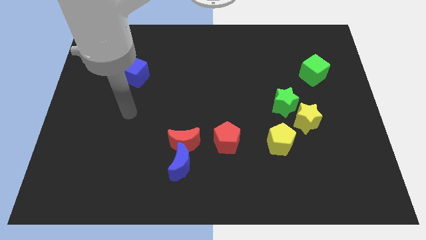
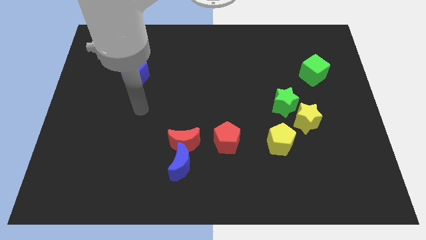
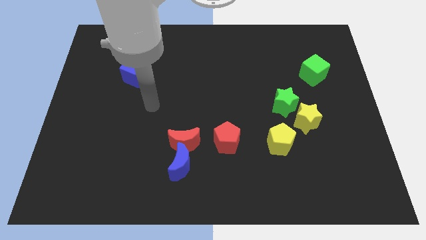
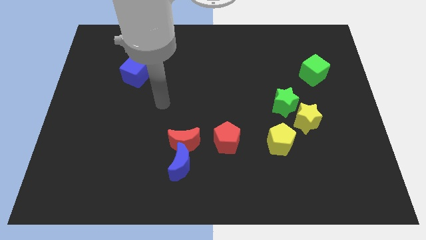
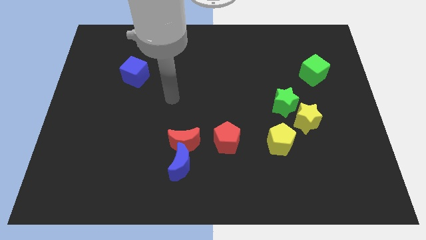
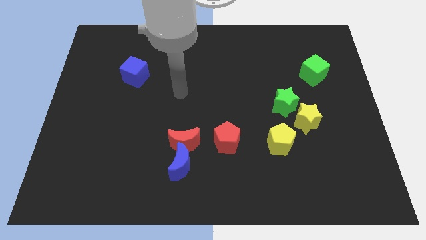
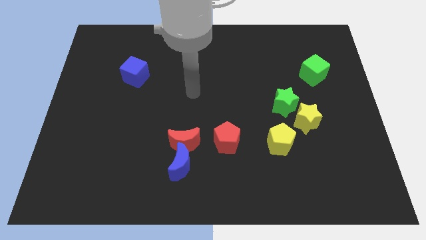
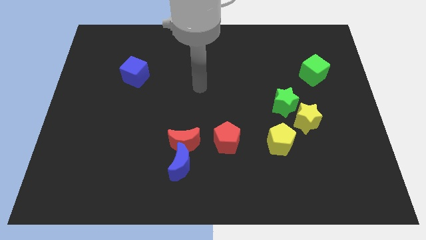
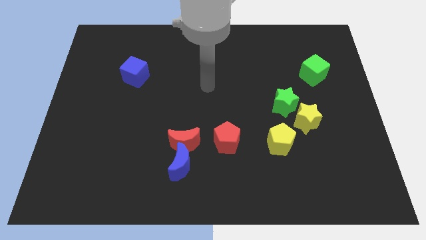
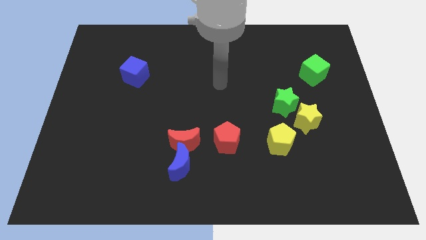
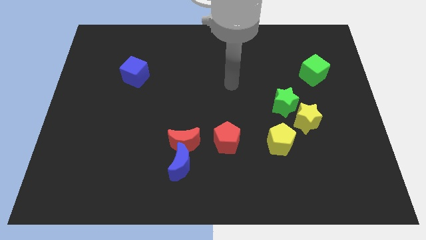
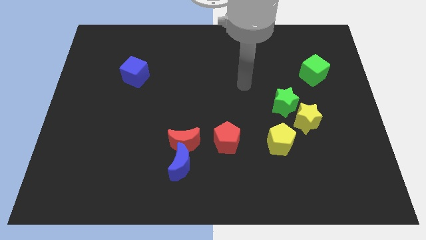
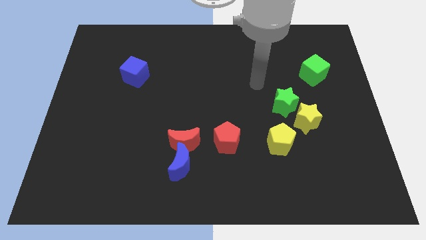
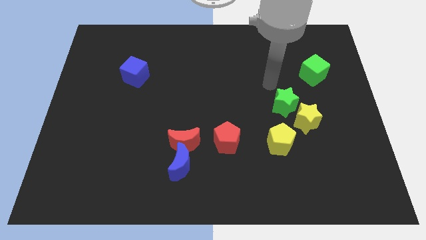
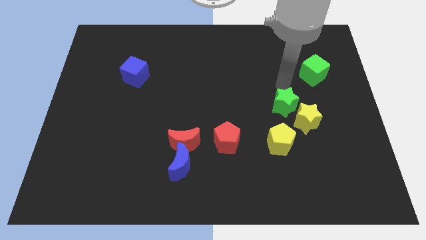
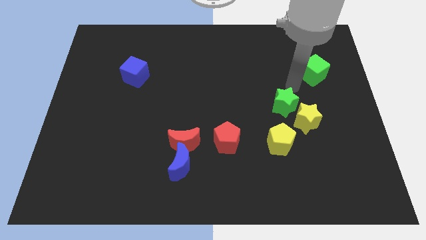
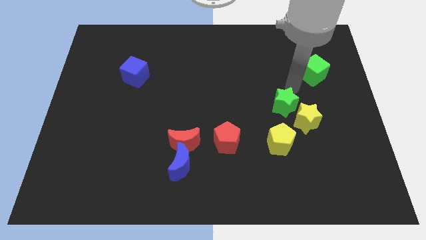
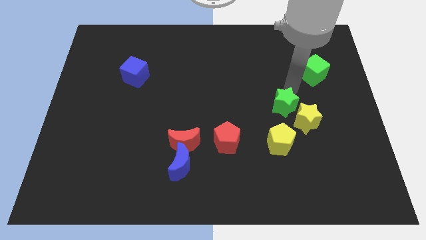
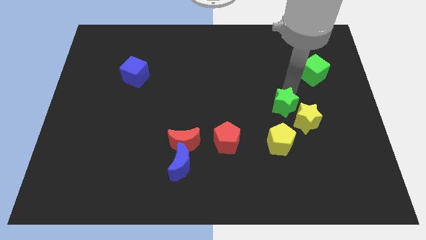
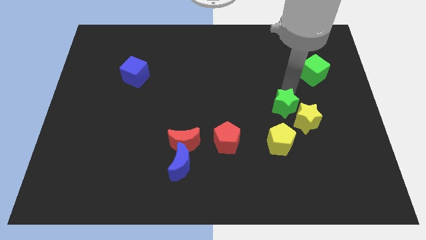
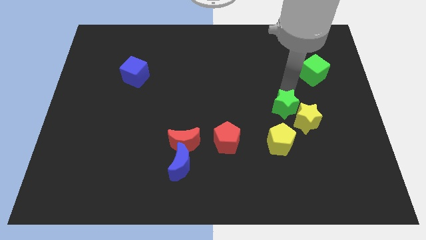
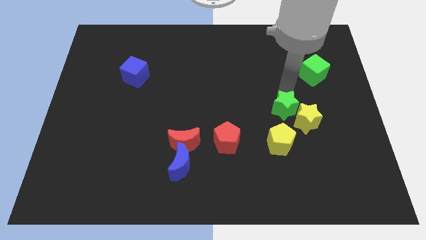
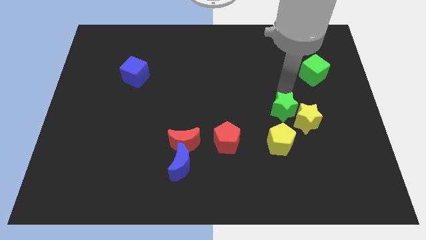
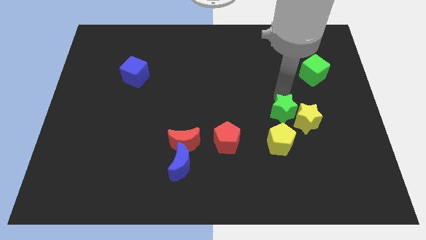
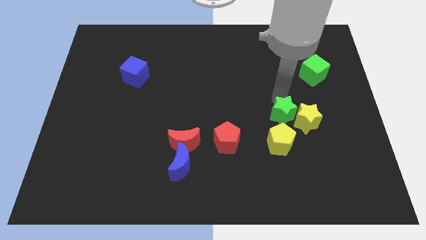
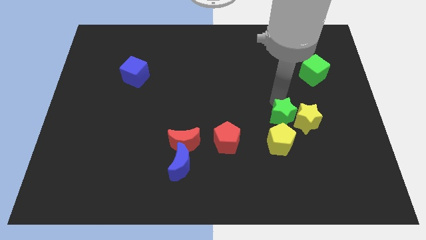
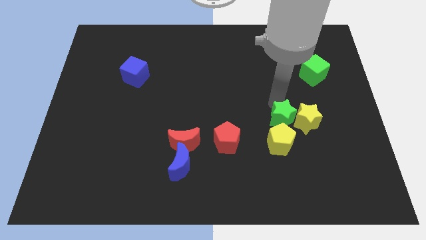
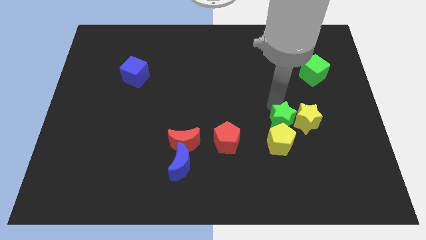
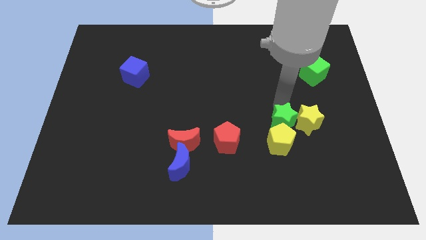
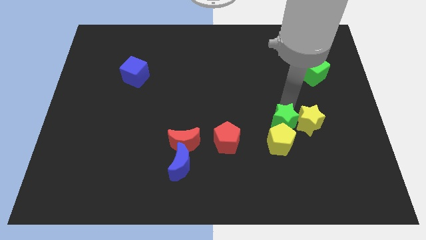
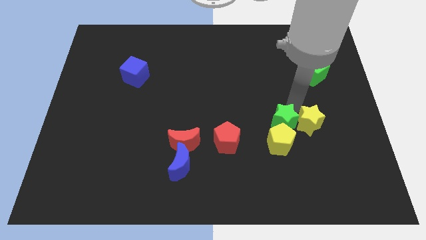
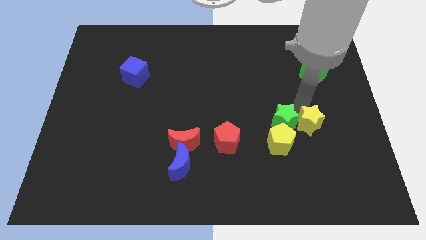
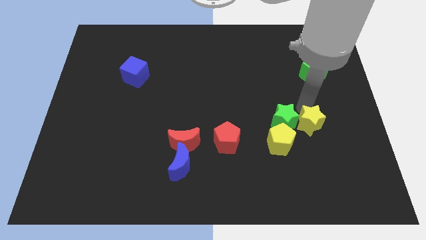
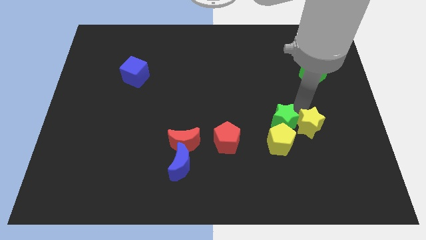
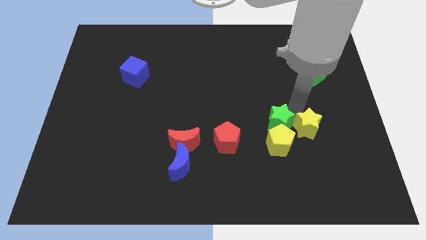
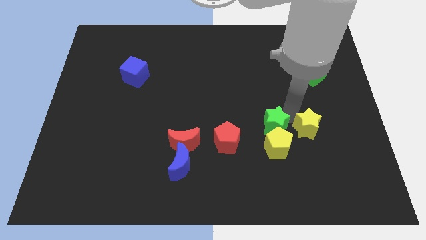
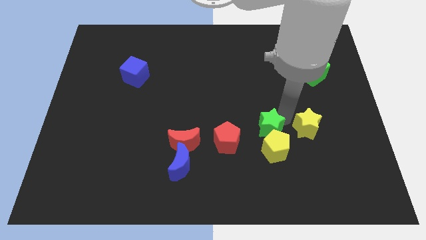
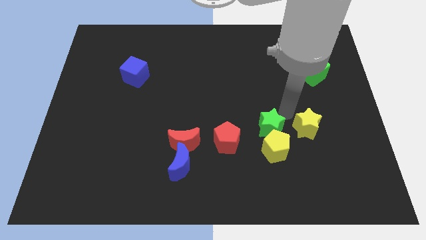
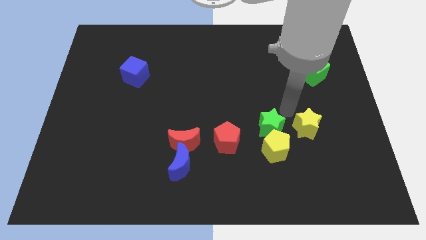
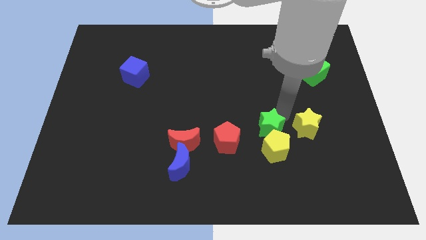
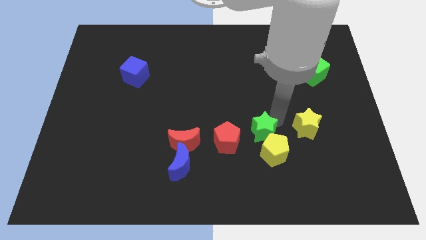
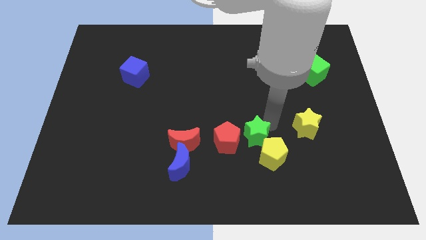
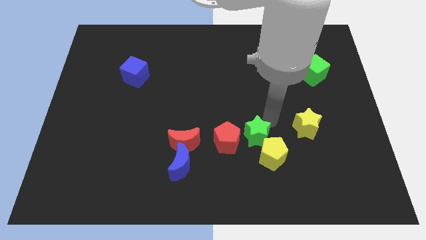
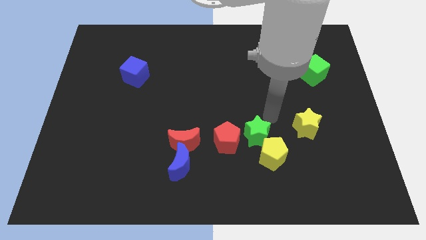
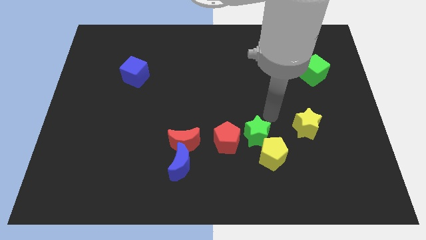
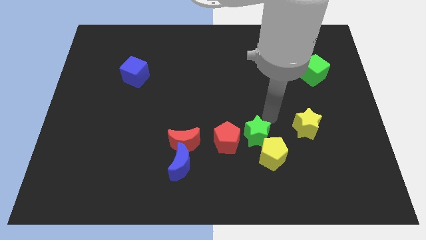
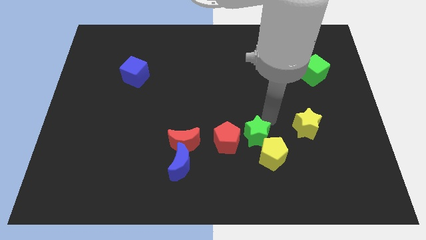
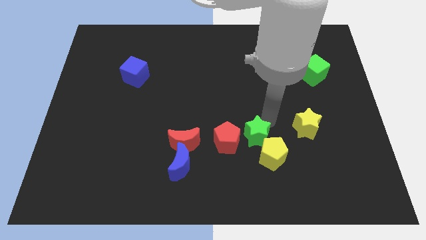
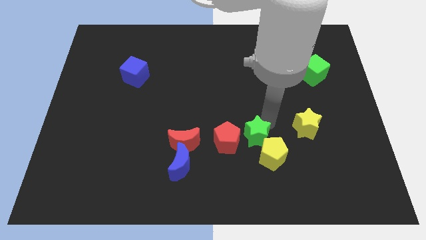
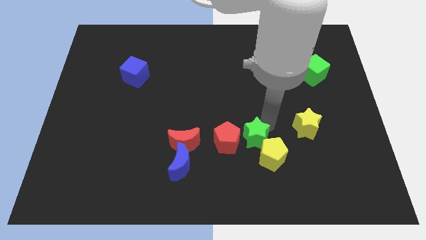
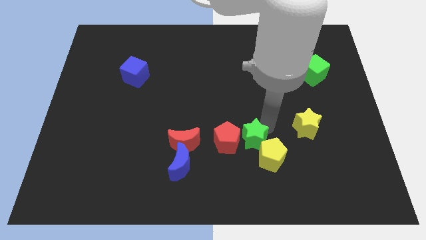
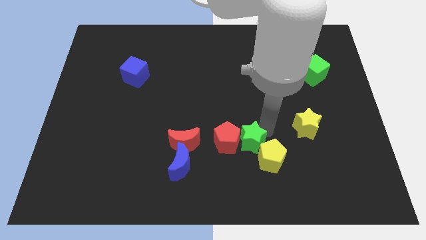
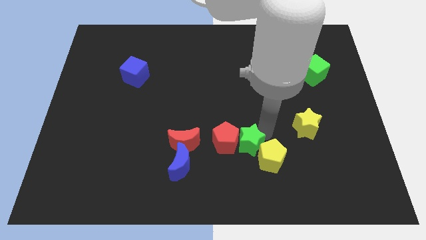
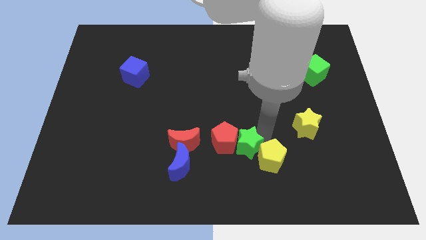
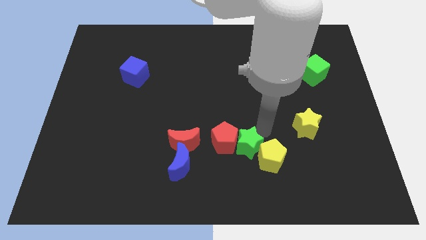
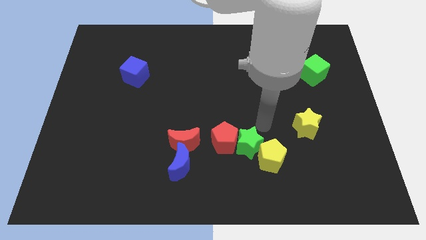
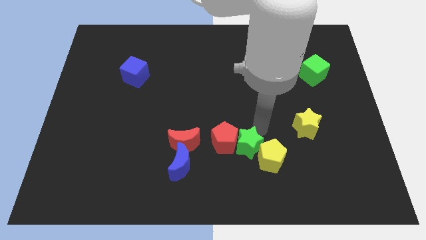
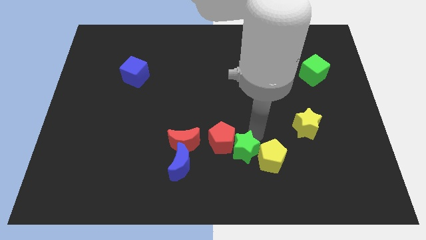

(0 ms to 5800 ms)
slide the green star to the right side of the blue moon

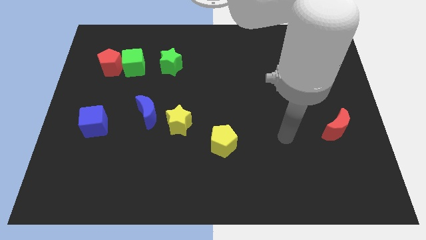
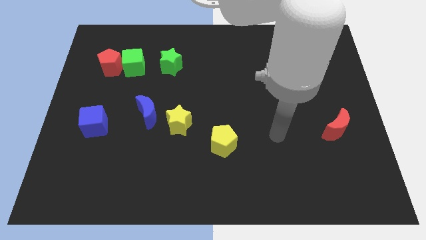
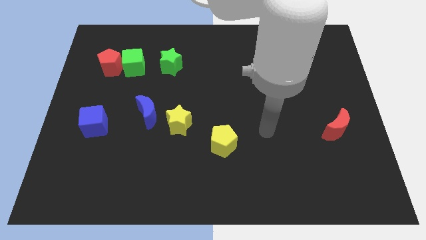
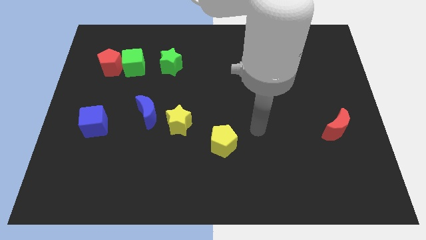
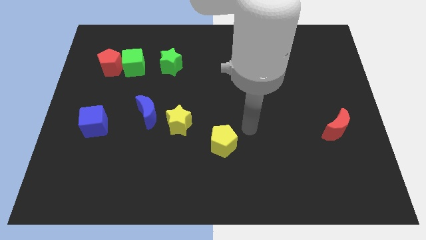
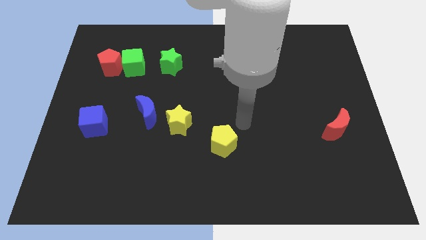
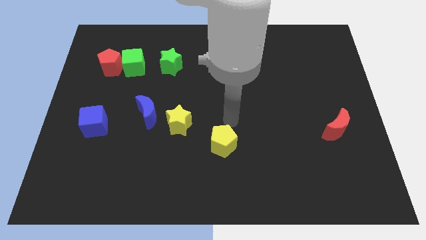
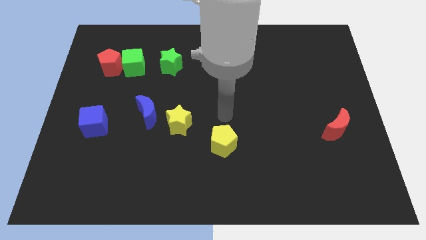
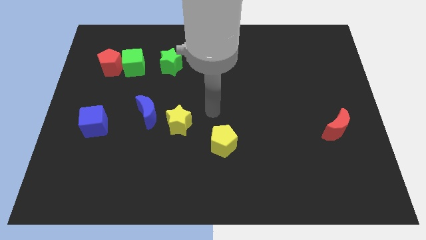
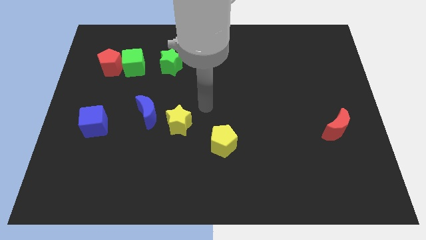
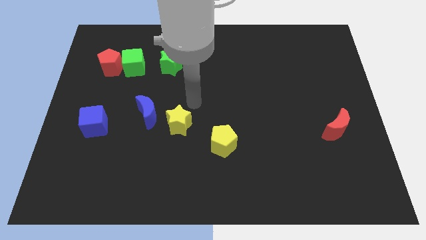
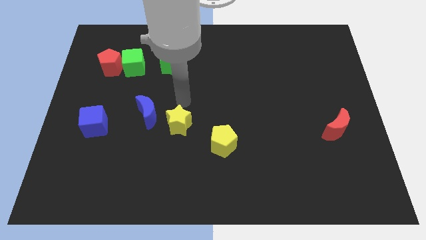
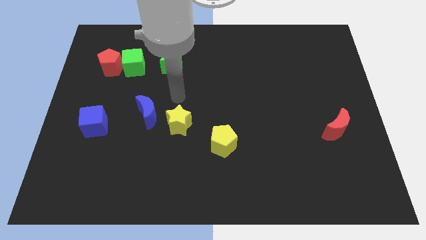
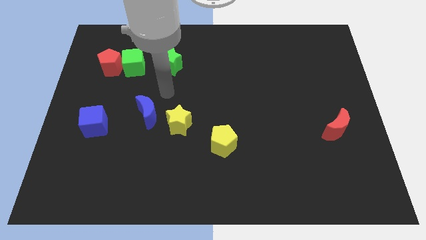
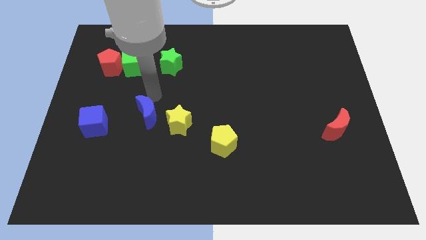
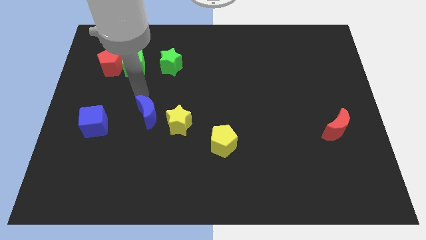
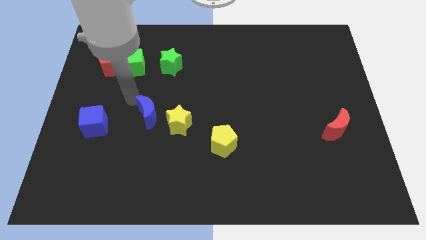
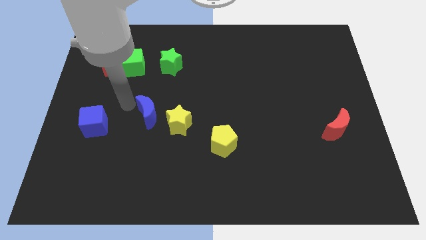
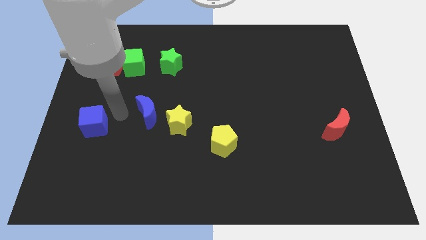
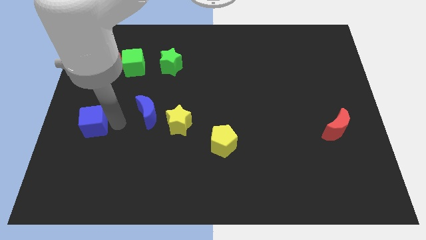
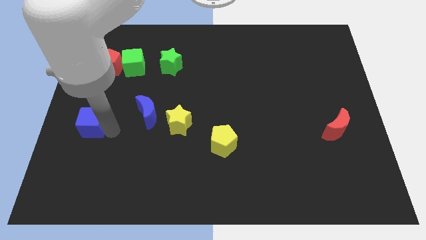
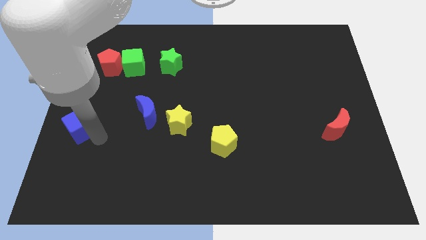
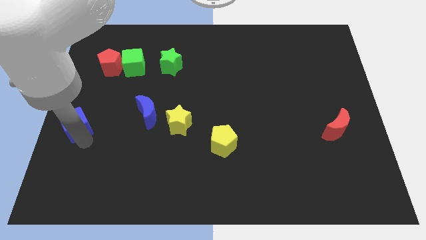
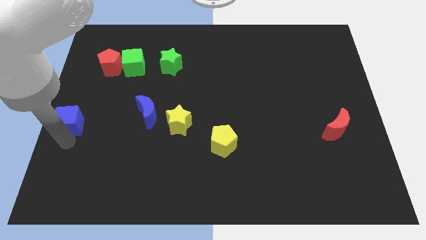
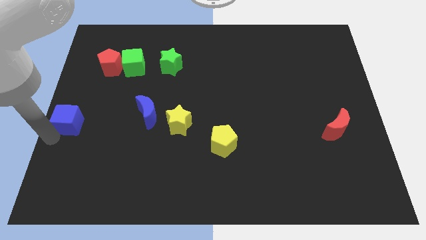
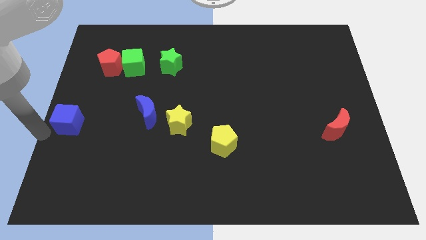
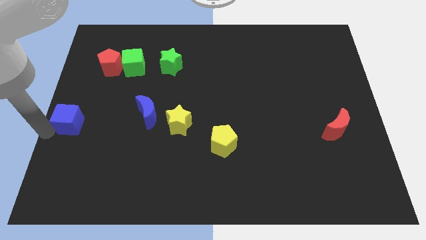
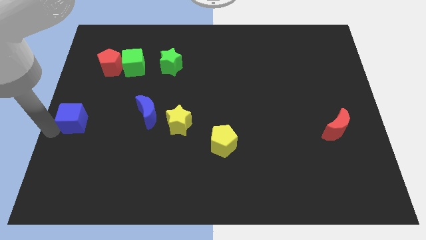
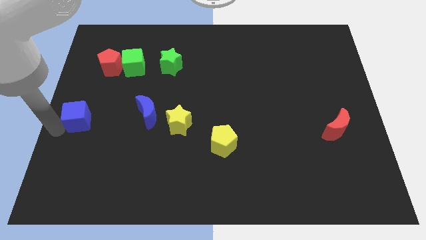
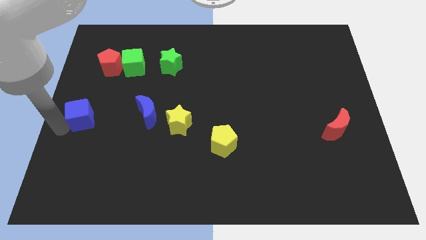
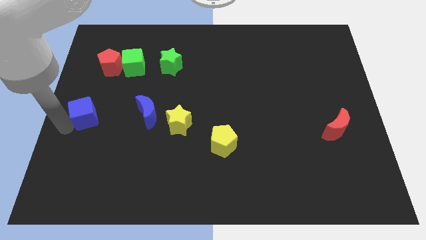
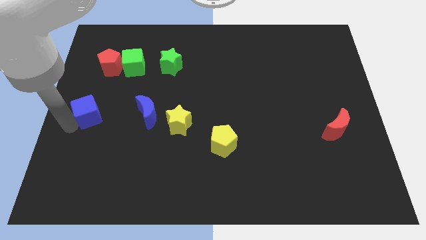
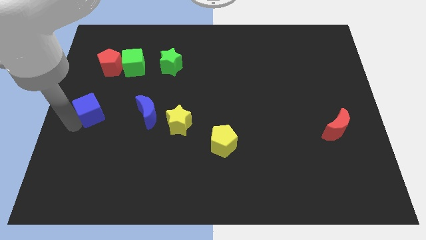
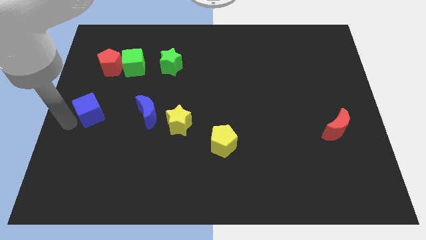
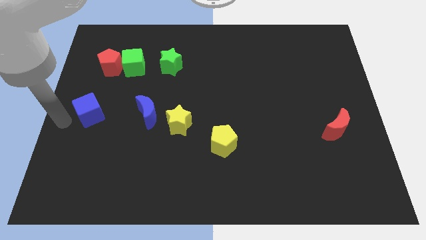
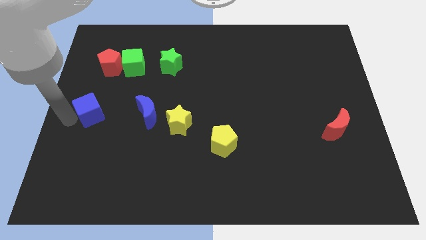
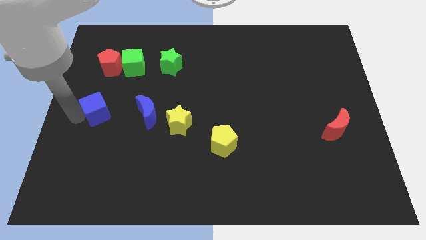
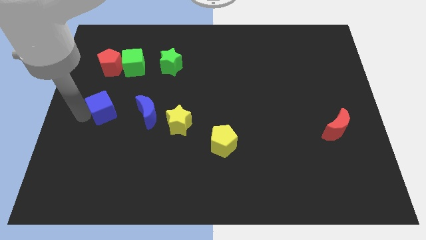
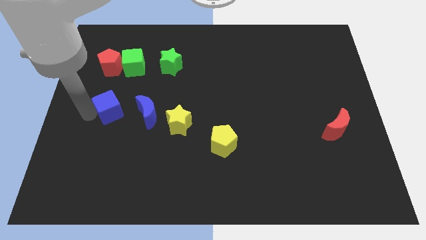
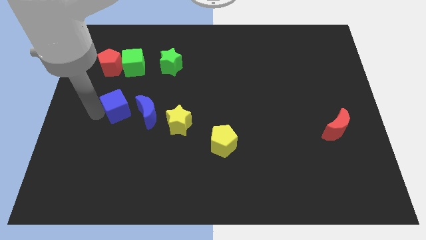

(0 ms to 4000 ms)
push the blue cube to the top left of the blue moon
